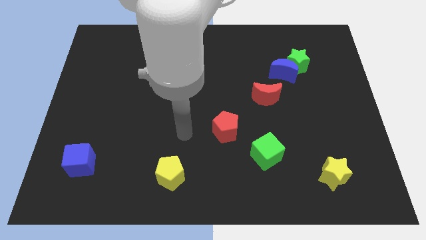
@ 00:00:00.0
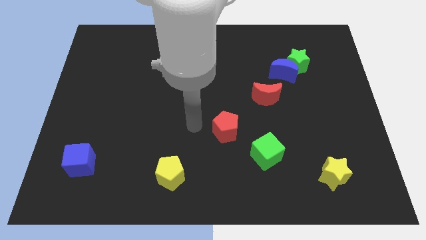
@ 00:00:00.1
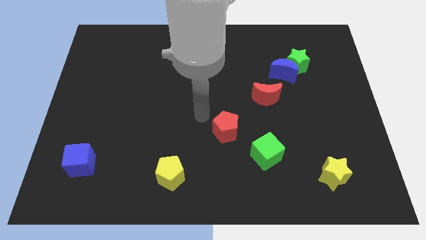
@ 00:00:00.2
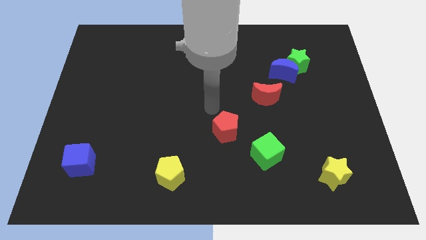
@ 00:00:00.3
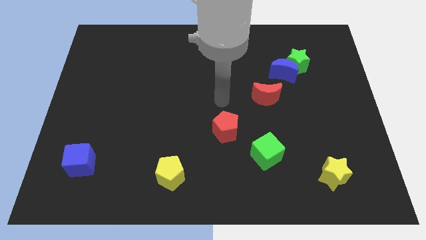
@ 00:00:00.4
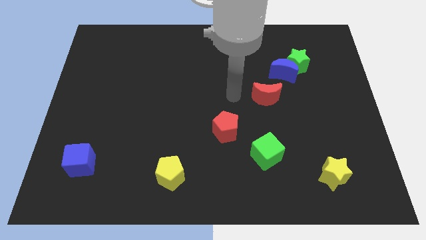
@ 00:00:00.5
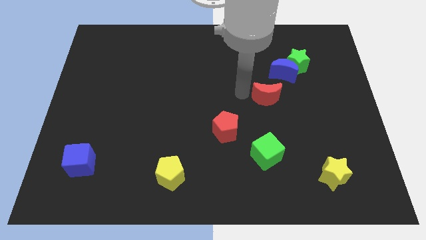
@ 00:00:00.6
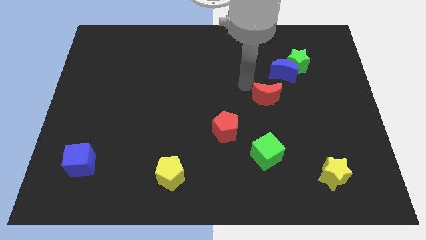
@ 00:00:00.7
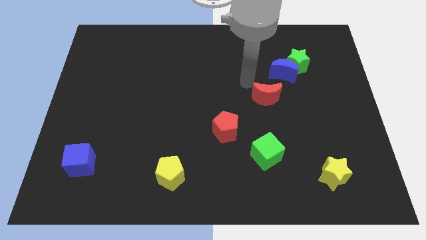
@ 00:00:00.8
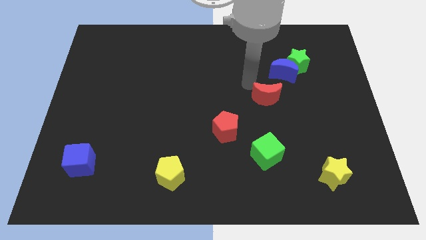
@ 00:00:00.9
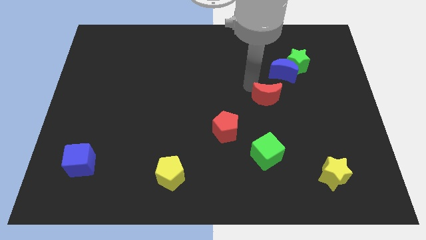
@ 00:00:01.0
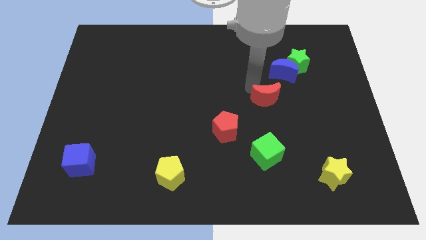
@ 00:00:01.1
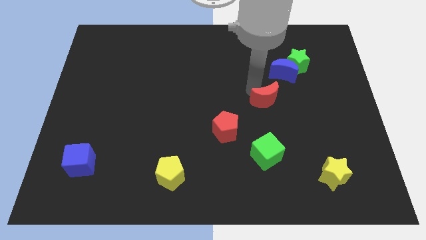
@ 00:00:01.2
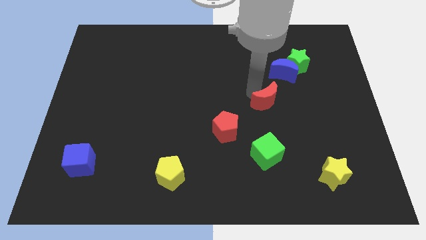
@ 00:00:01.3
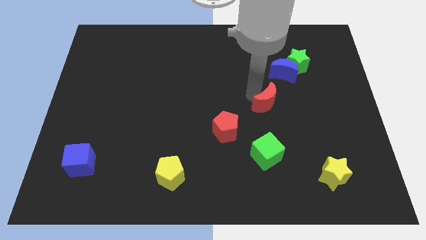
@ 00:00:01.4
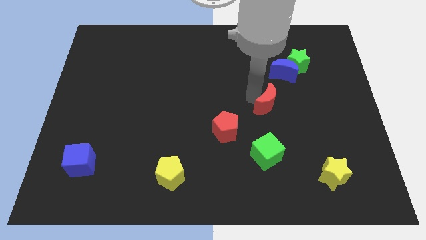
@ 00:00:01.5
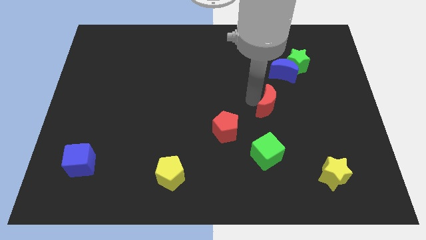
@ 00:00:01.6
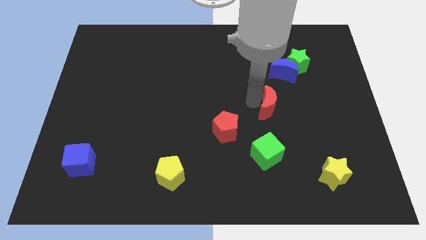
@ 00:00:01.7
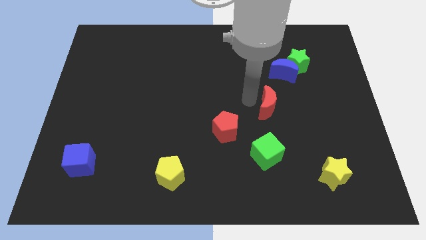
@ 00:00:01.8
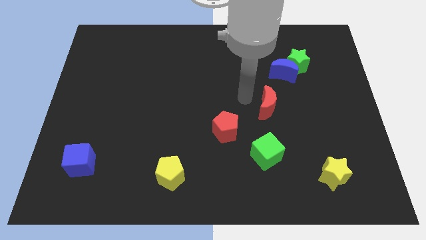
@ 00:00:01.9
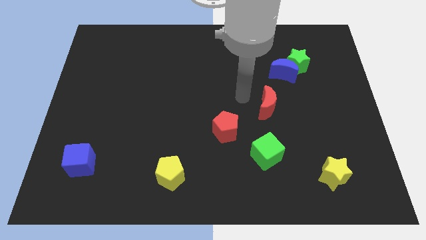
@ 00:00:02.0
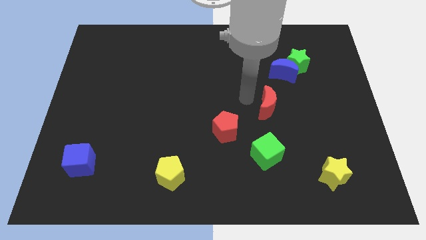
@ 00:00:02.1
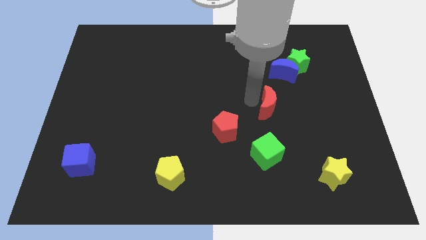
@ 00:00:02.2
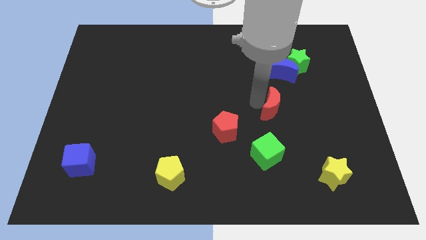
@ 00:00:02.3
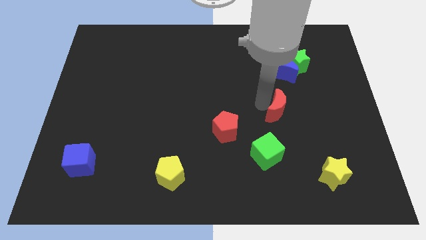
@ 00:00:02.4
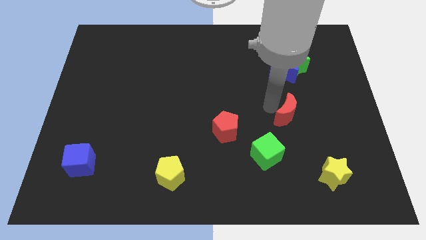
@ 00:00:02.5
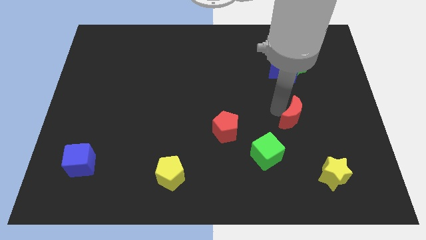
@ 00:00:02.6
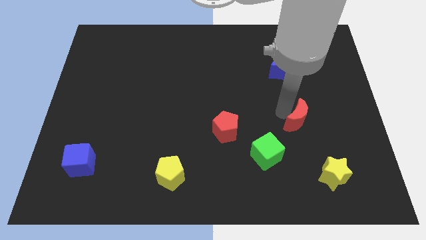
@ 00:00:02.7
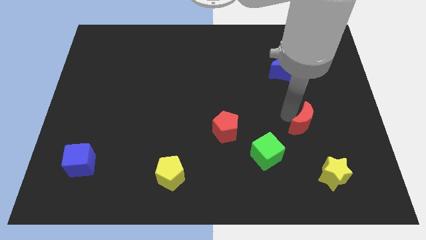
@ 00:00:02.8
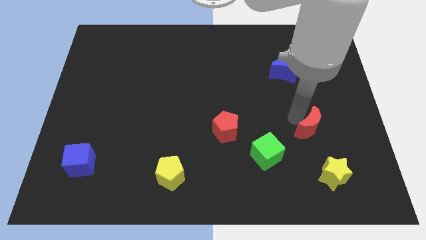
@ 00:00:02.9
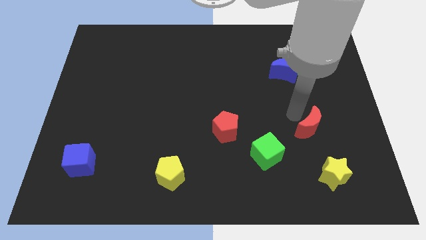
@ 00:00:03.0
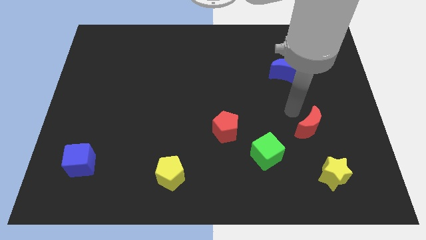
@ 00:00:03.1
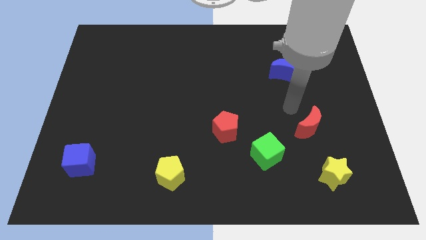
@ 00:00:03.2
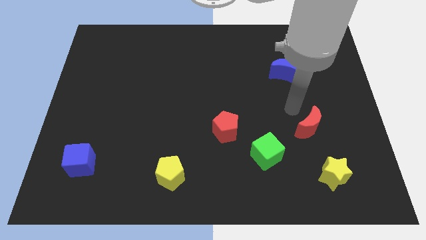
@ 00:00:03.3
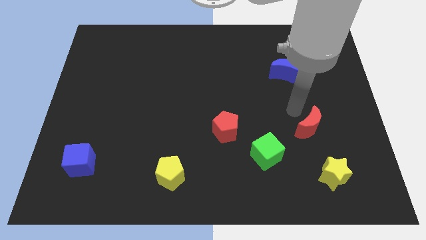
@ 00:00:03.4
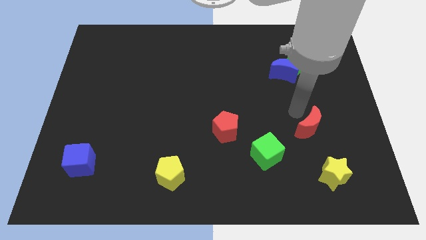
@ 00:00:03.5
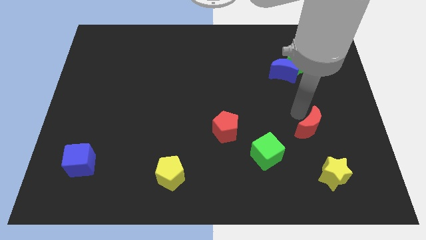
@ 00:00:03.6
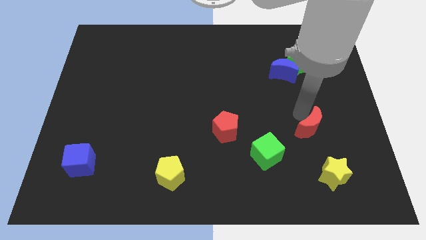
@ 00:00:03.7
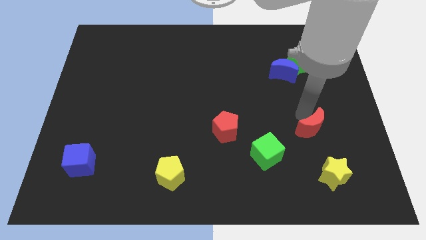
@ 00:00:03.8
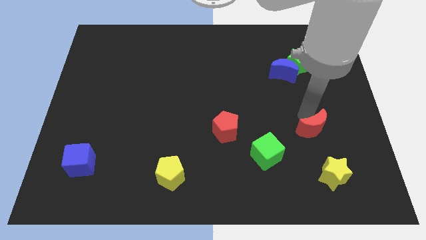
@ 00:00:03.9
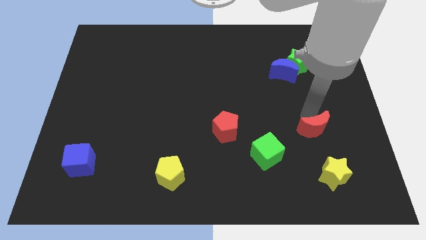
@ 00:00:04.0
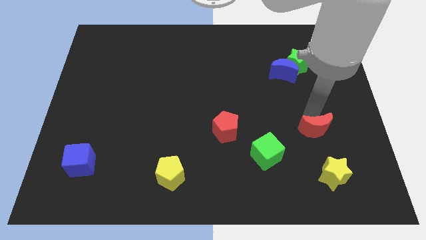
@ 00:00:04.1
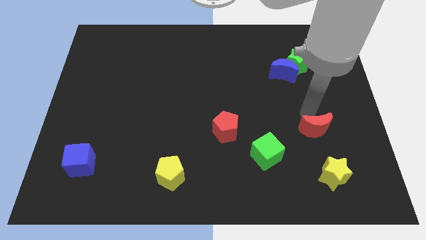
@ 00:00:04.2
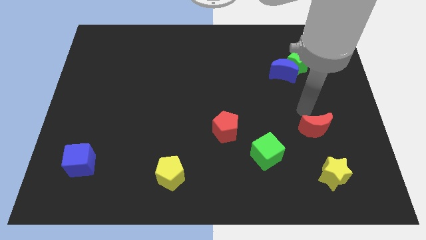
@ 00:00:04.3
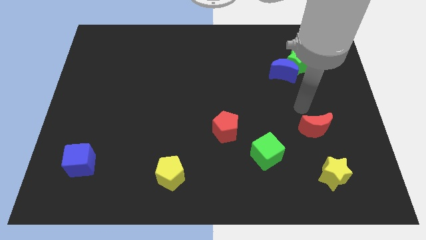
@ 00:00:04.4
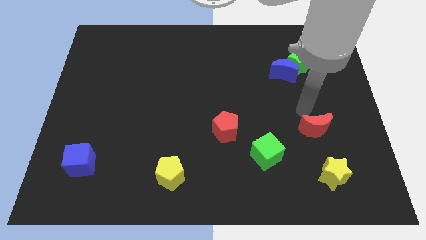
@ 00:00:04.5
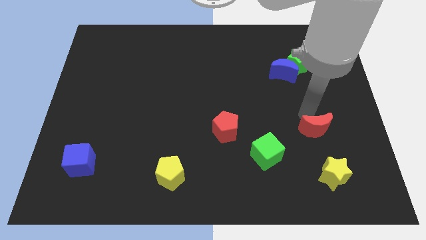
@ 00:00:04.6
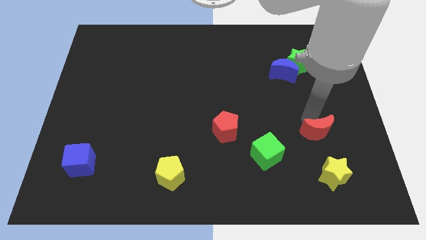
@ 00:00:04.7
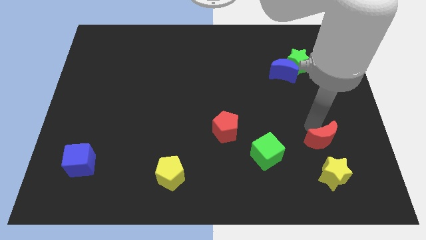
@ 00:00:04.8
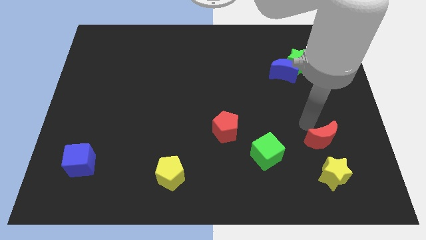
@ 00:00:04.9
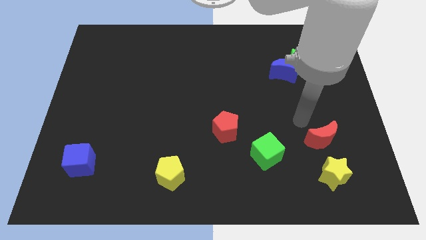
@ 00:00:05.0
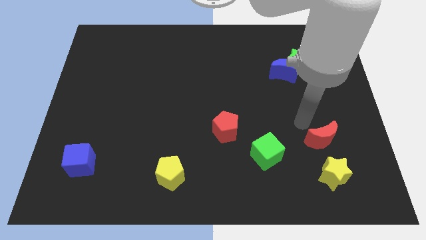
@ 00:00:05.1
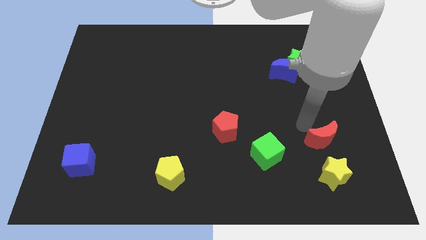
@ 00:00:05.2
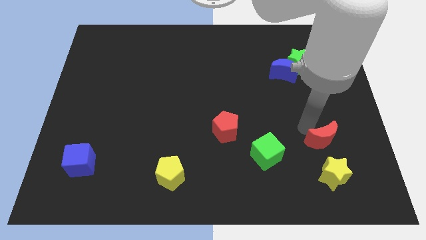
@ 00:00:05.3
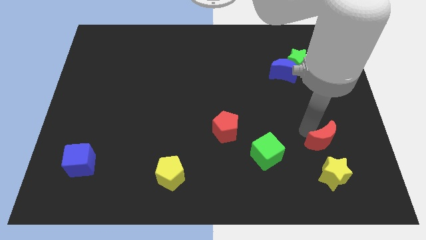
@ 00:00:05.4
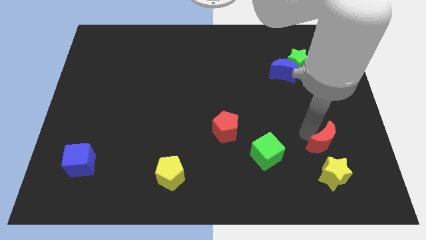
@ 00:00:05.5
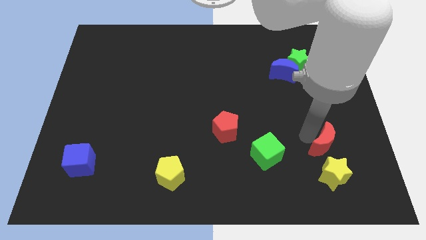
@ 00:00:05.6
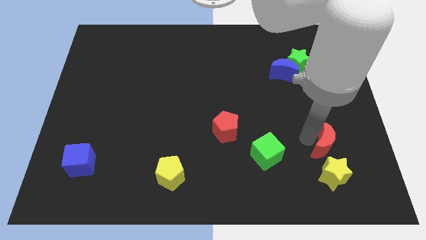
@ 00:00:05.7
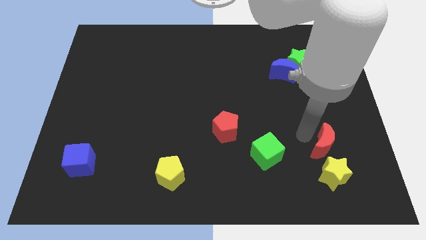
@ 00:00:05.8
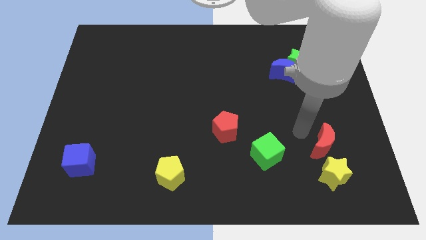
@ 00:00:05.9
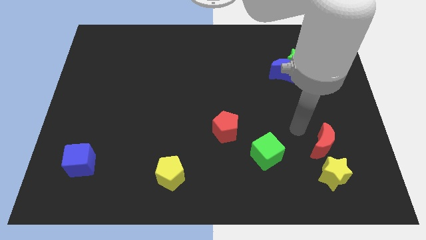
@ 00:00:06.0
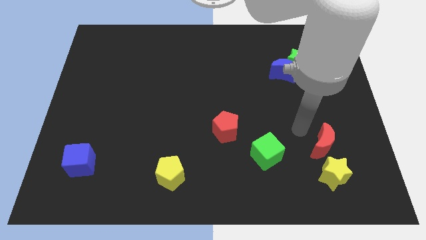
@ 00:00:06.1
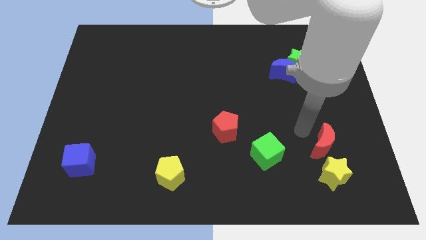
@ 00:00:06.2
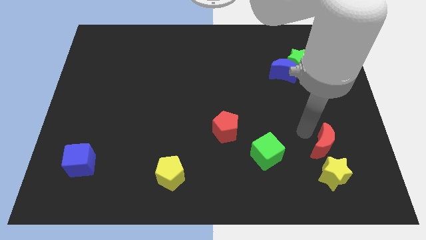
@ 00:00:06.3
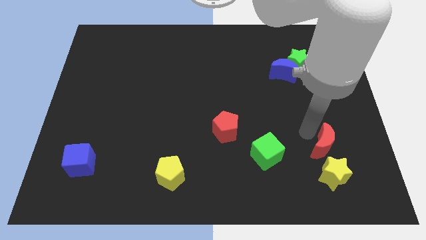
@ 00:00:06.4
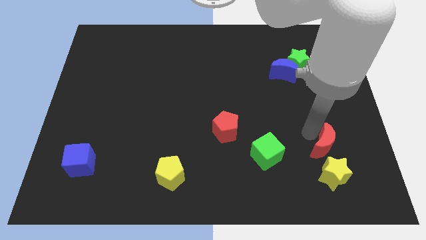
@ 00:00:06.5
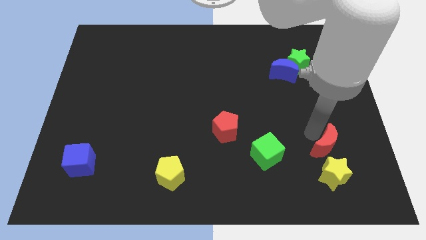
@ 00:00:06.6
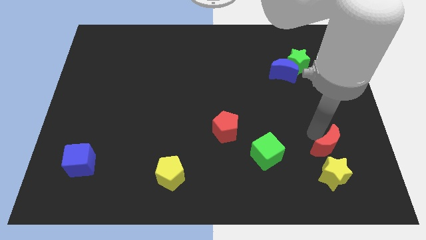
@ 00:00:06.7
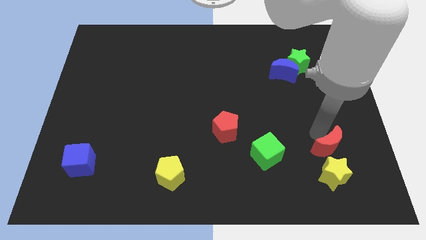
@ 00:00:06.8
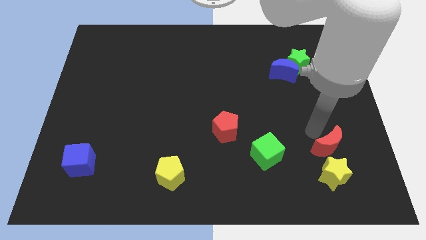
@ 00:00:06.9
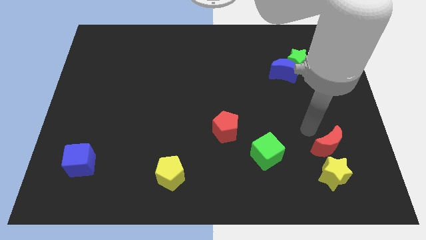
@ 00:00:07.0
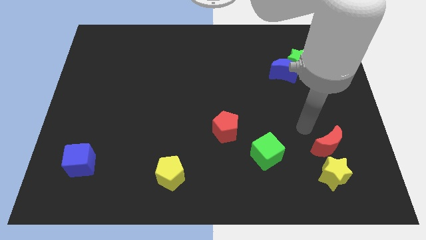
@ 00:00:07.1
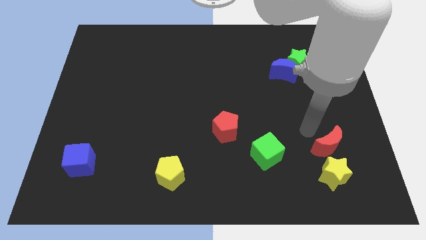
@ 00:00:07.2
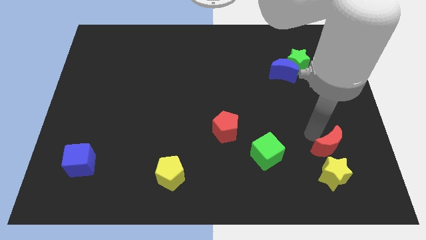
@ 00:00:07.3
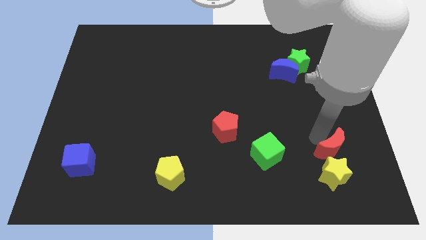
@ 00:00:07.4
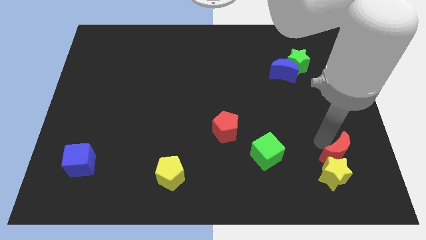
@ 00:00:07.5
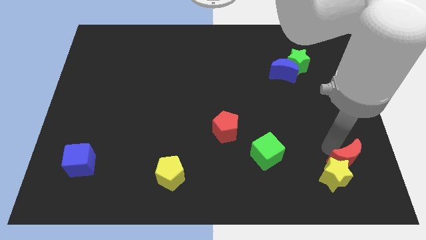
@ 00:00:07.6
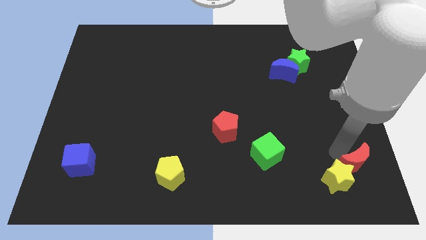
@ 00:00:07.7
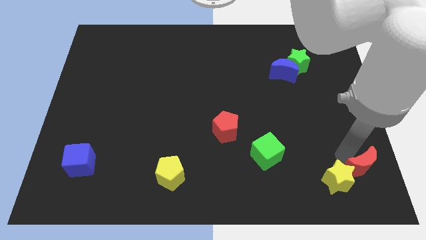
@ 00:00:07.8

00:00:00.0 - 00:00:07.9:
slide the red moon to the bottom right of the board
